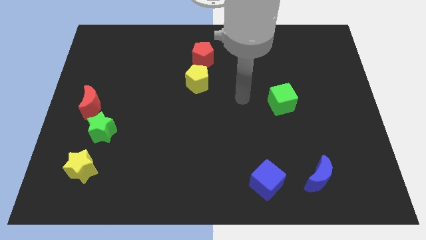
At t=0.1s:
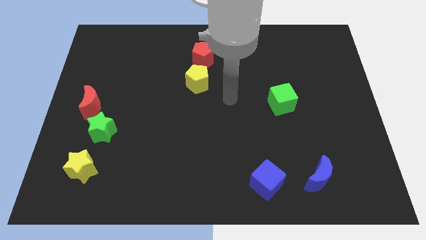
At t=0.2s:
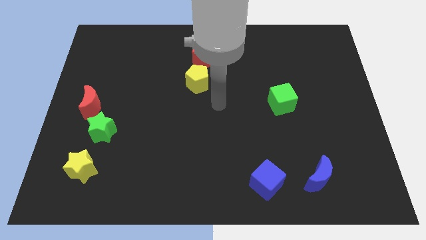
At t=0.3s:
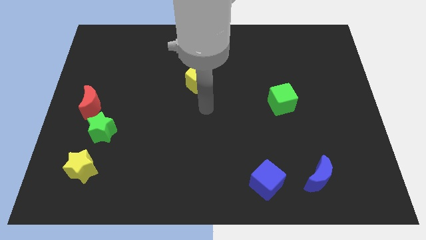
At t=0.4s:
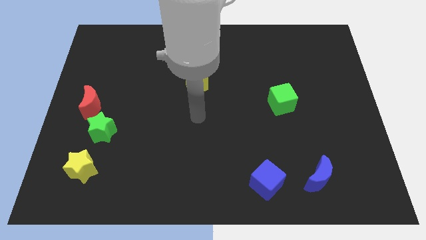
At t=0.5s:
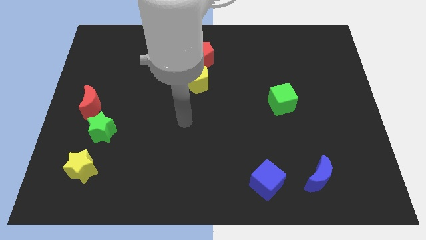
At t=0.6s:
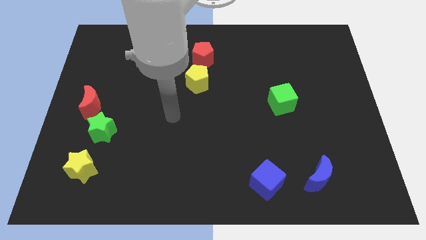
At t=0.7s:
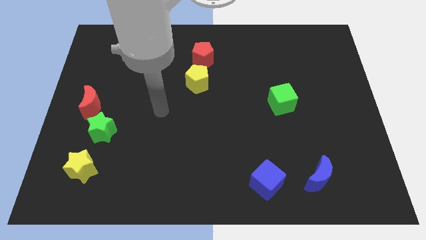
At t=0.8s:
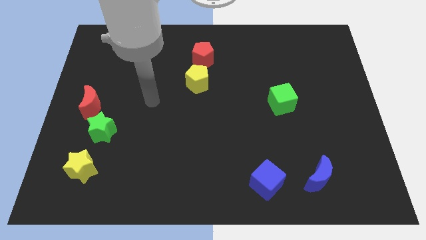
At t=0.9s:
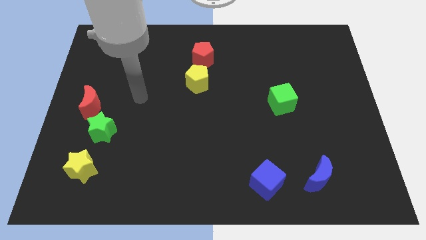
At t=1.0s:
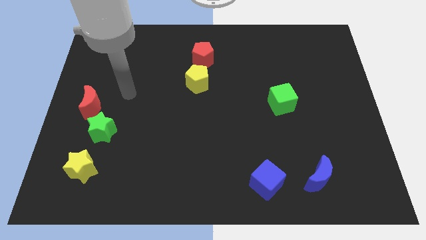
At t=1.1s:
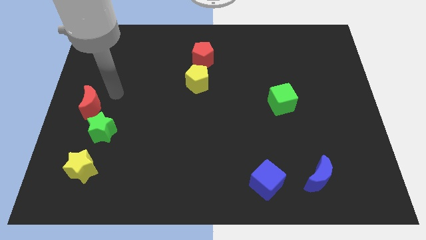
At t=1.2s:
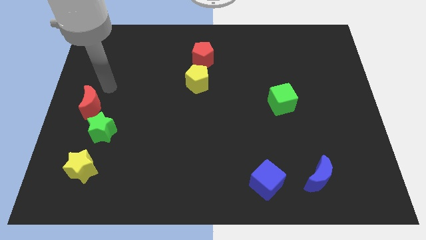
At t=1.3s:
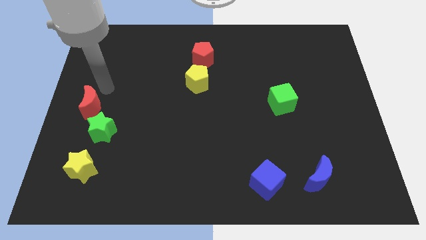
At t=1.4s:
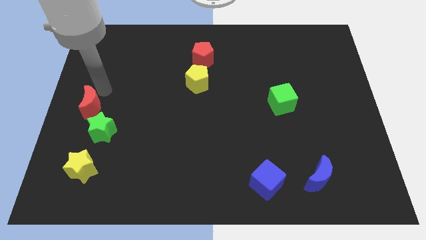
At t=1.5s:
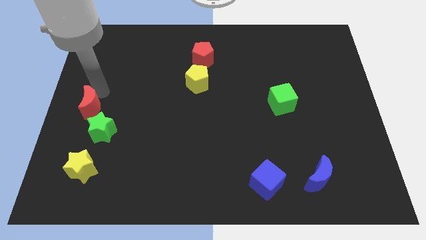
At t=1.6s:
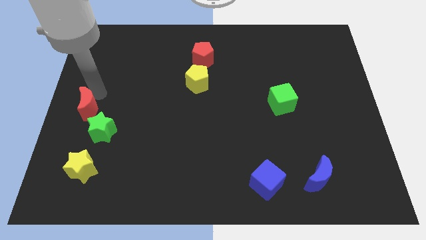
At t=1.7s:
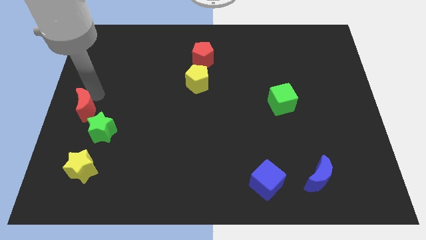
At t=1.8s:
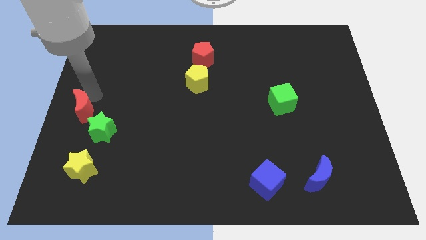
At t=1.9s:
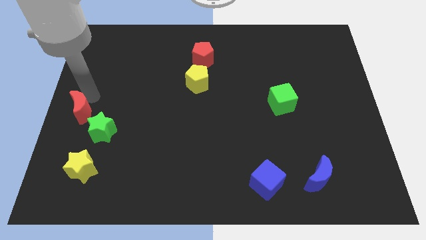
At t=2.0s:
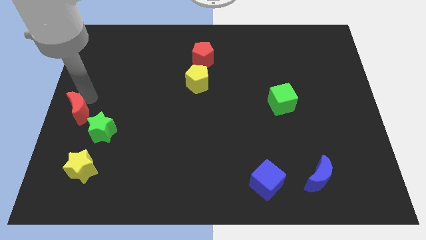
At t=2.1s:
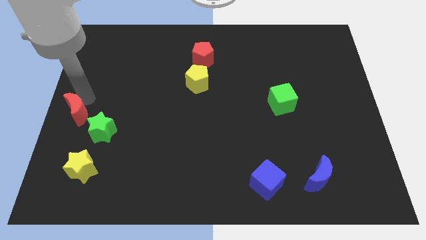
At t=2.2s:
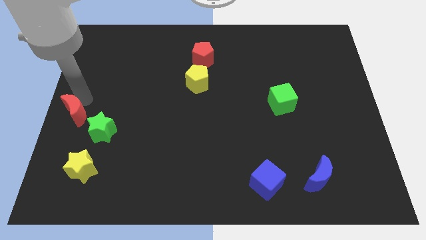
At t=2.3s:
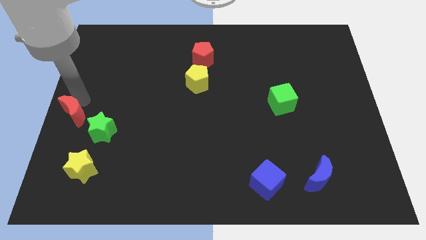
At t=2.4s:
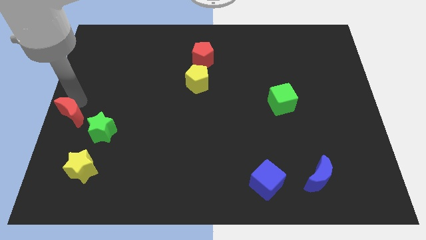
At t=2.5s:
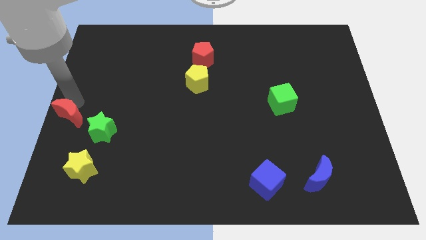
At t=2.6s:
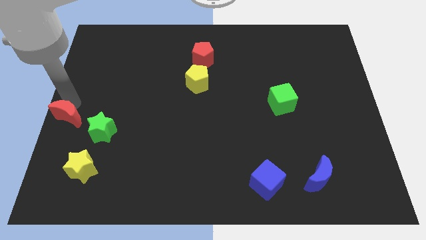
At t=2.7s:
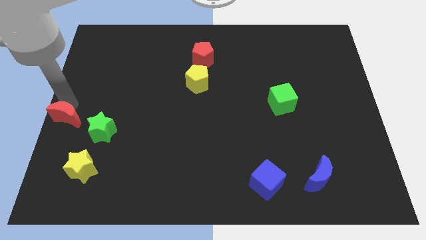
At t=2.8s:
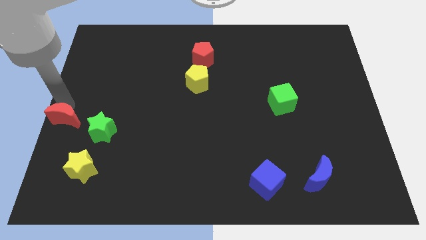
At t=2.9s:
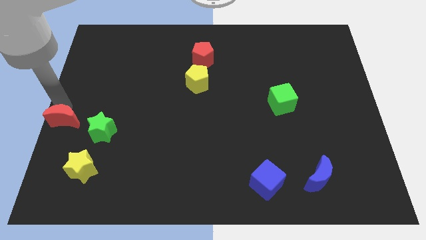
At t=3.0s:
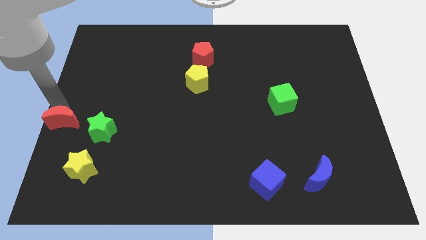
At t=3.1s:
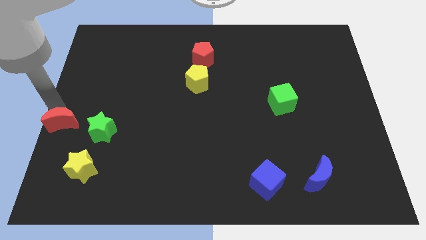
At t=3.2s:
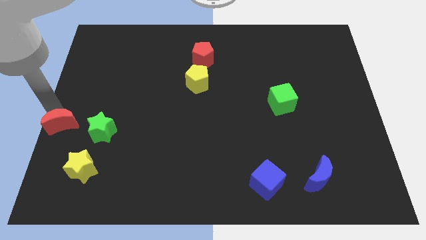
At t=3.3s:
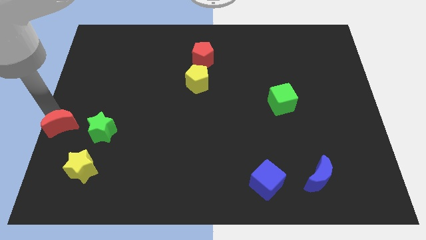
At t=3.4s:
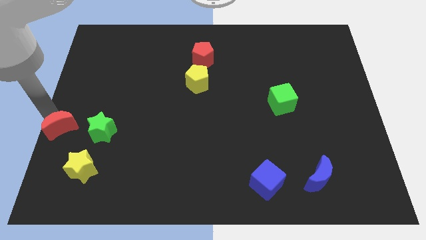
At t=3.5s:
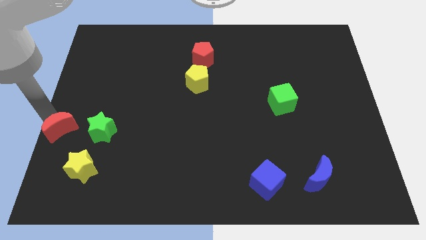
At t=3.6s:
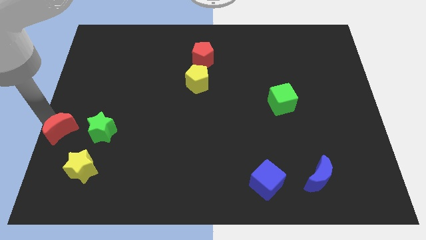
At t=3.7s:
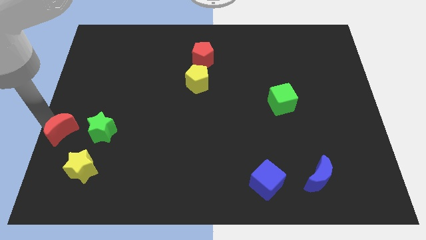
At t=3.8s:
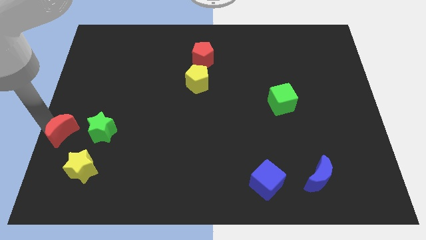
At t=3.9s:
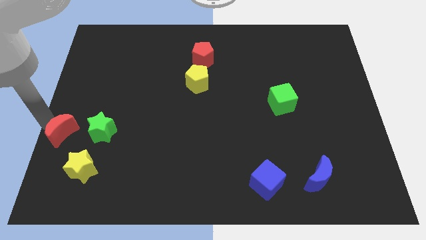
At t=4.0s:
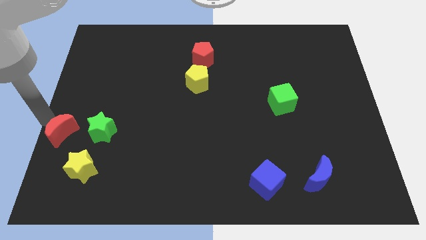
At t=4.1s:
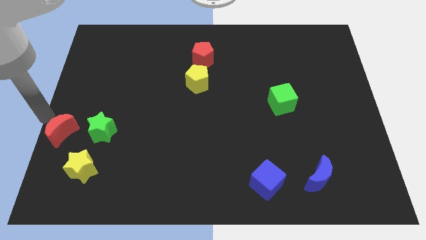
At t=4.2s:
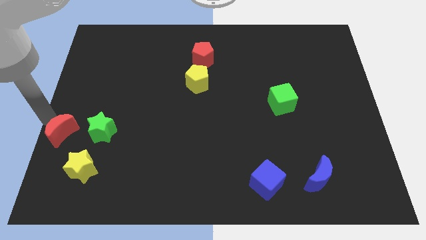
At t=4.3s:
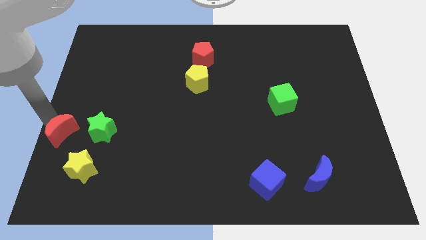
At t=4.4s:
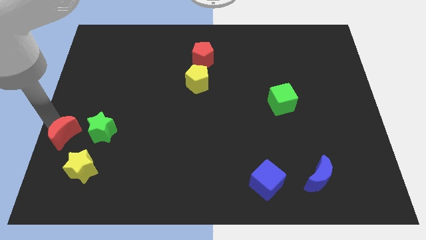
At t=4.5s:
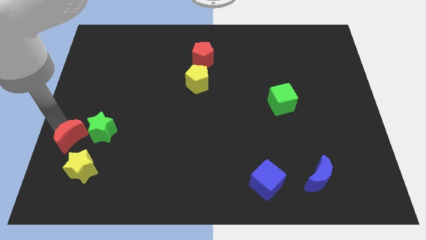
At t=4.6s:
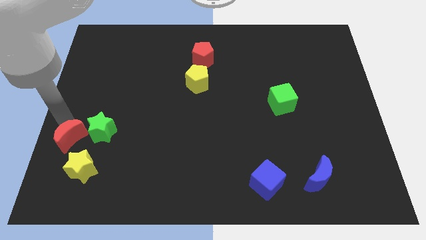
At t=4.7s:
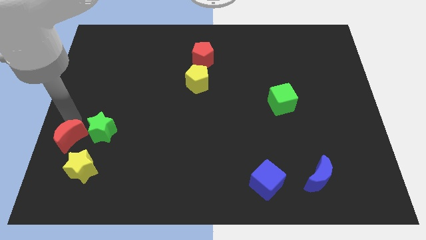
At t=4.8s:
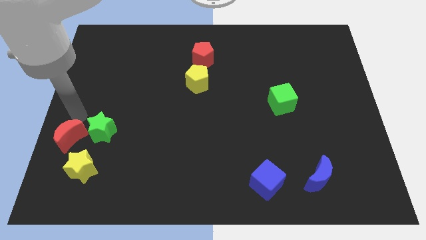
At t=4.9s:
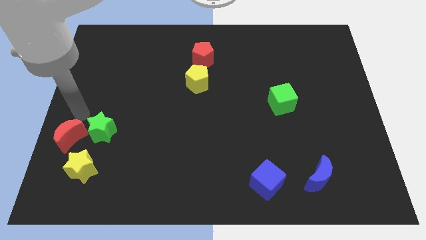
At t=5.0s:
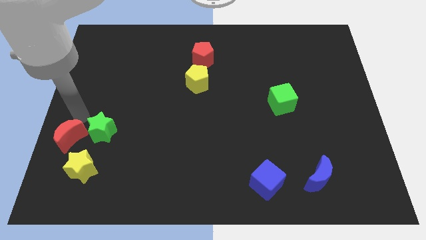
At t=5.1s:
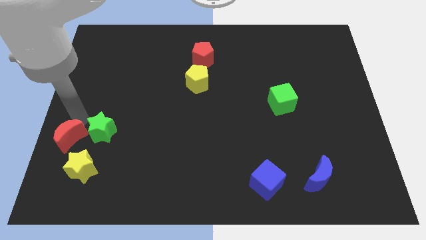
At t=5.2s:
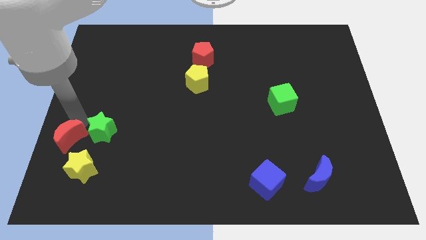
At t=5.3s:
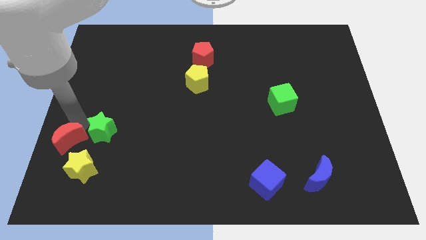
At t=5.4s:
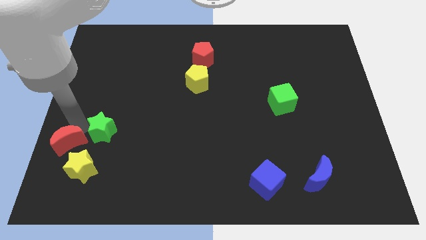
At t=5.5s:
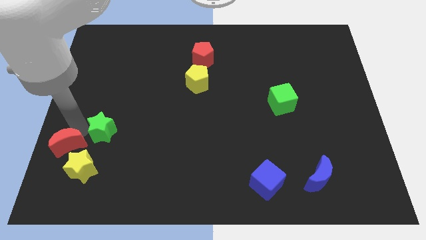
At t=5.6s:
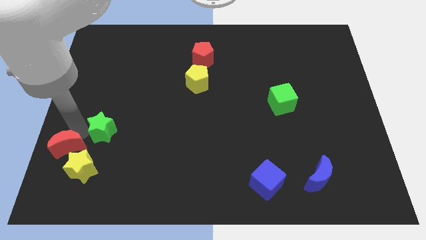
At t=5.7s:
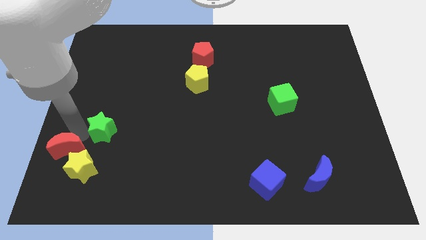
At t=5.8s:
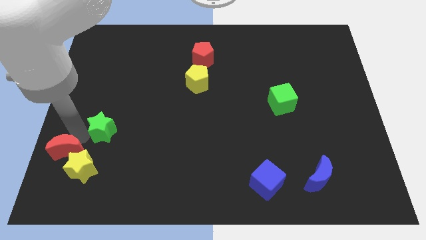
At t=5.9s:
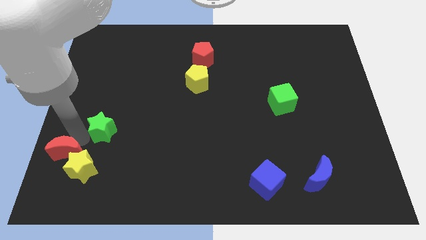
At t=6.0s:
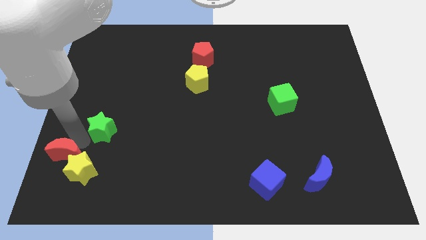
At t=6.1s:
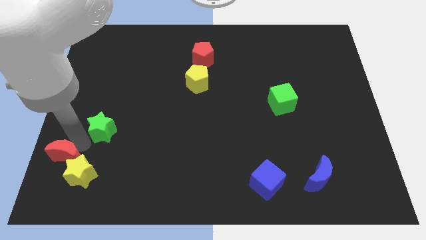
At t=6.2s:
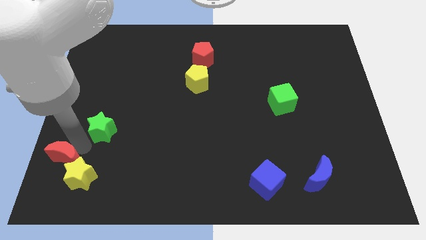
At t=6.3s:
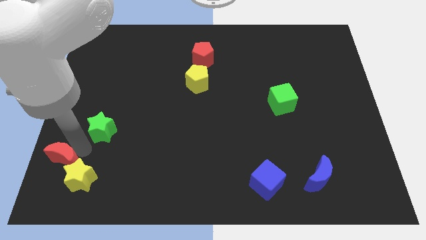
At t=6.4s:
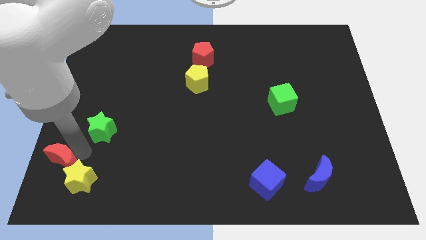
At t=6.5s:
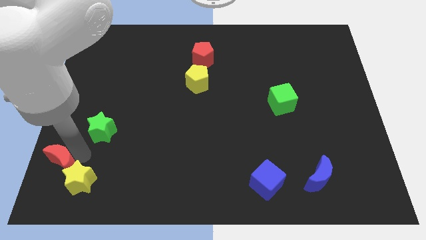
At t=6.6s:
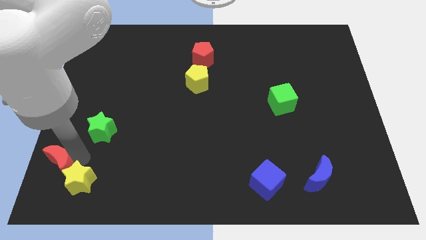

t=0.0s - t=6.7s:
slide the red moon to the bottom left corner

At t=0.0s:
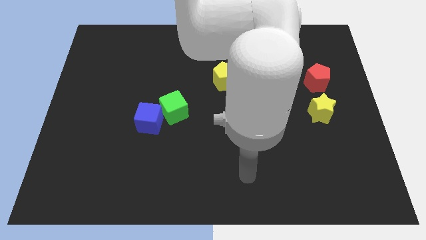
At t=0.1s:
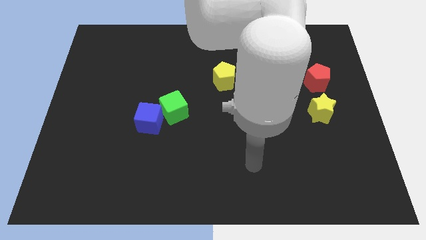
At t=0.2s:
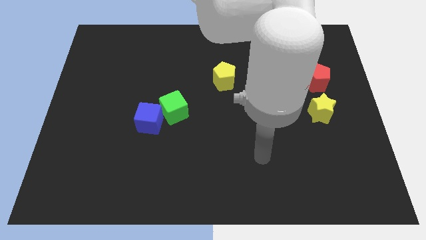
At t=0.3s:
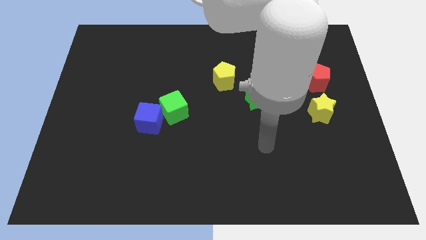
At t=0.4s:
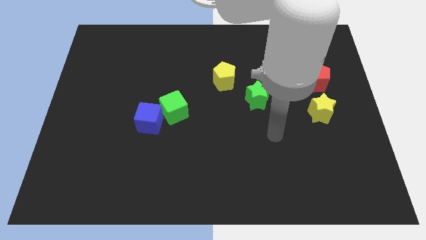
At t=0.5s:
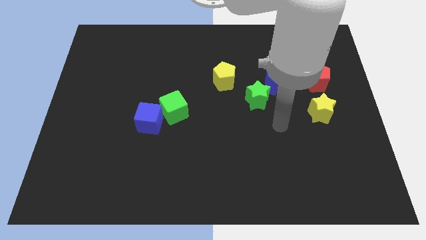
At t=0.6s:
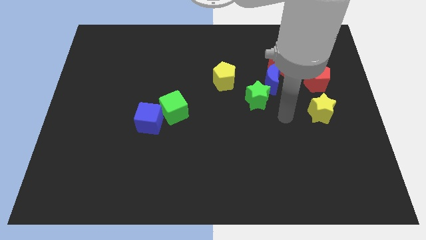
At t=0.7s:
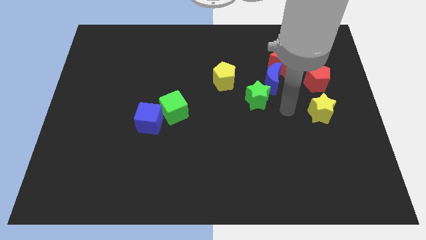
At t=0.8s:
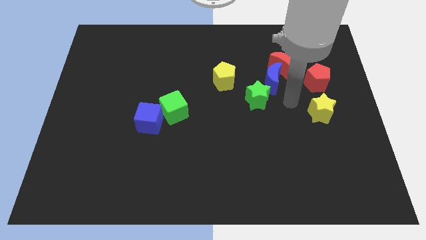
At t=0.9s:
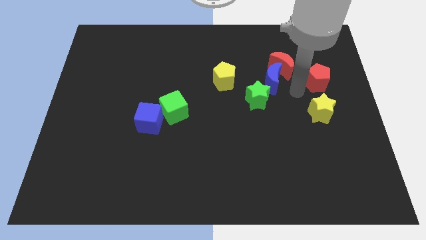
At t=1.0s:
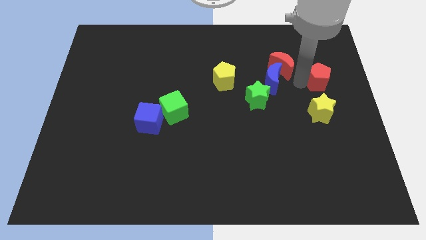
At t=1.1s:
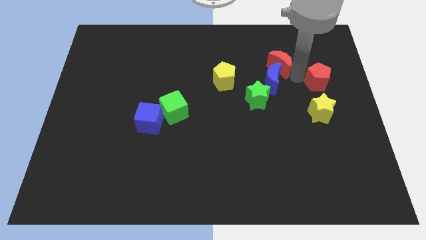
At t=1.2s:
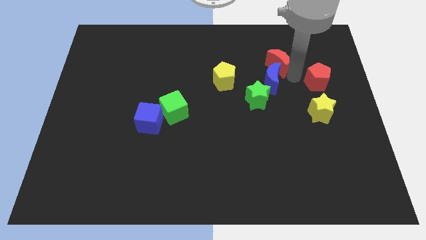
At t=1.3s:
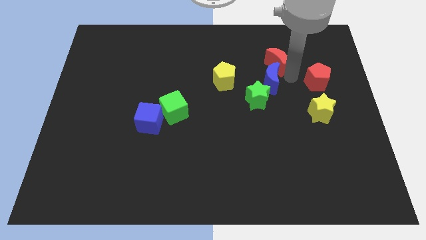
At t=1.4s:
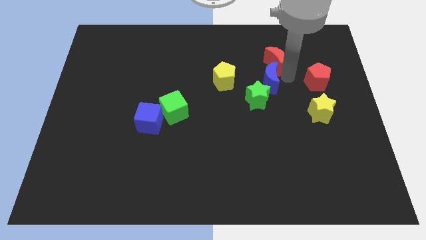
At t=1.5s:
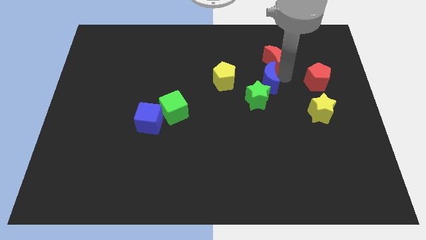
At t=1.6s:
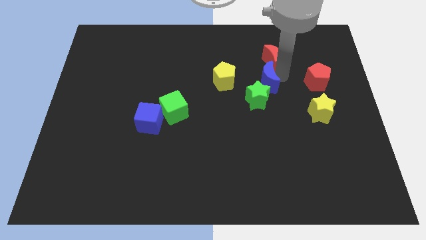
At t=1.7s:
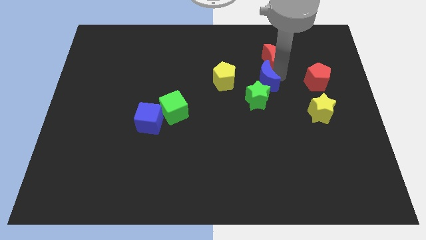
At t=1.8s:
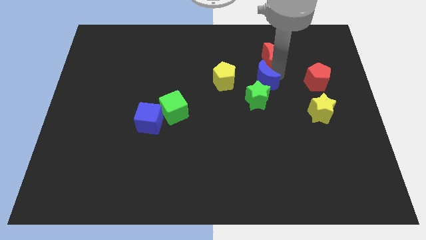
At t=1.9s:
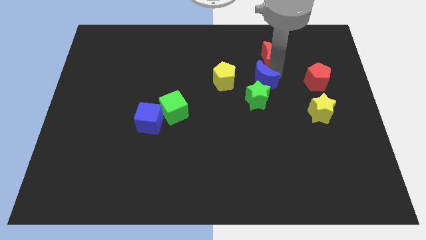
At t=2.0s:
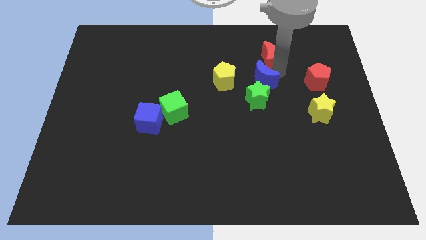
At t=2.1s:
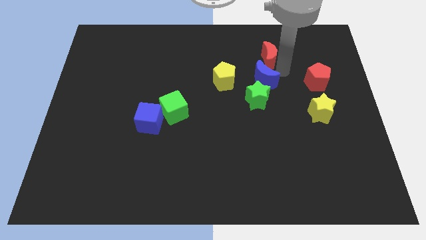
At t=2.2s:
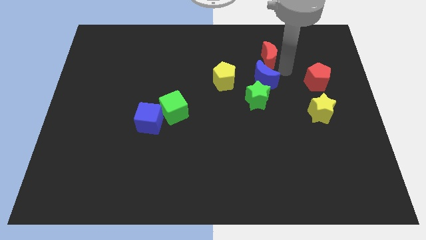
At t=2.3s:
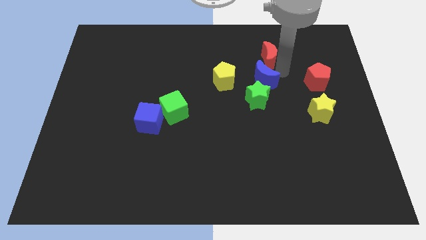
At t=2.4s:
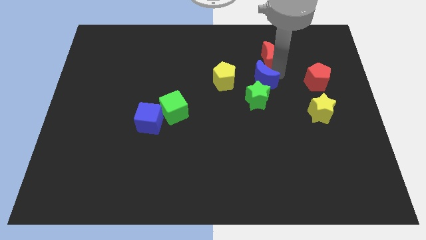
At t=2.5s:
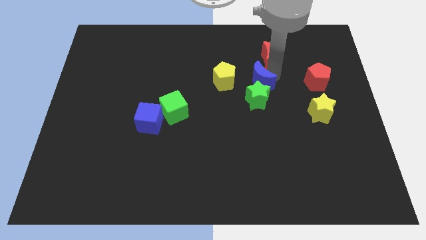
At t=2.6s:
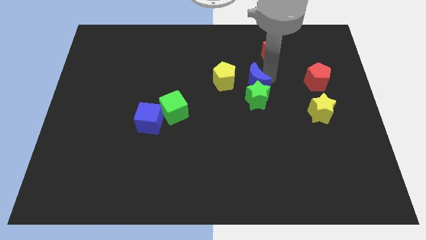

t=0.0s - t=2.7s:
put the blue moon to the center of the board
